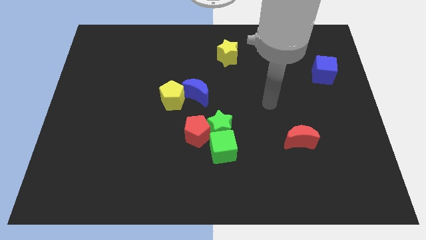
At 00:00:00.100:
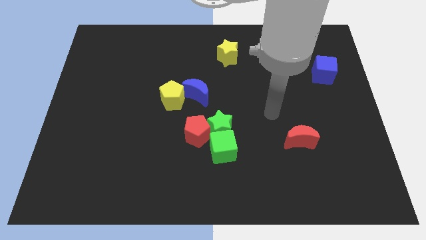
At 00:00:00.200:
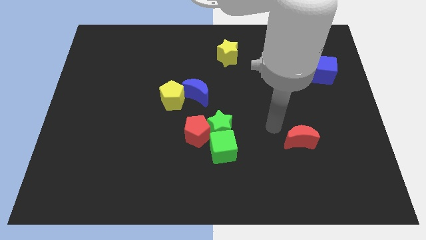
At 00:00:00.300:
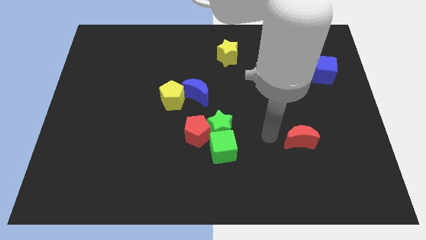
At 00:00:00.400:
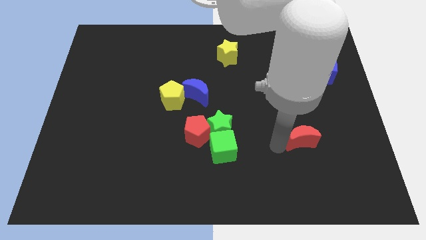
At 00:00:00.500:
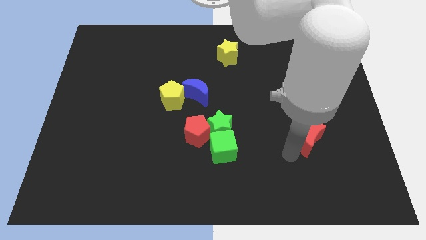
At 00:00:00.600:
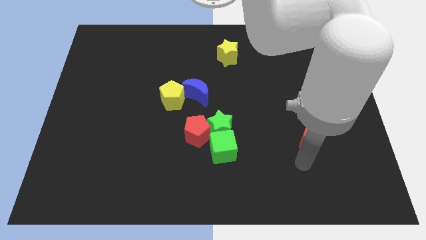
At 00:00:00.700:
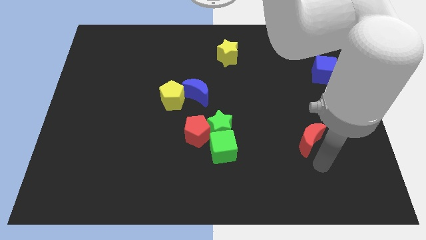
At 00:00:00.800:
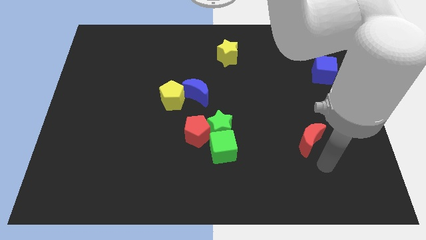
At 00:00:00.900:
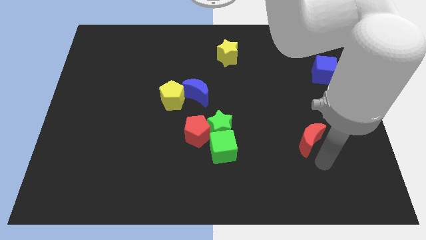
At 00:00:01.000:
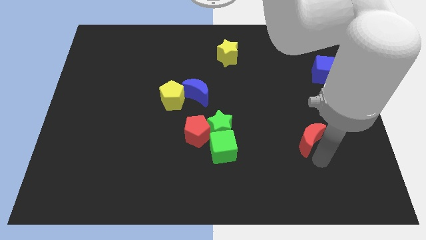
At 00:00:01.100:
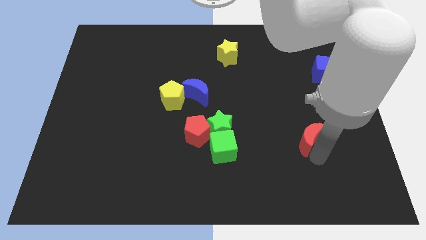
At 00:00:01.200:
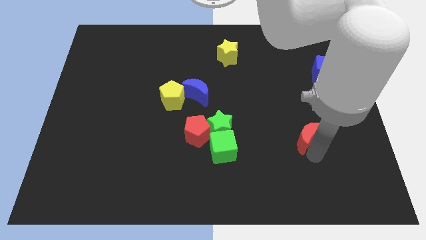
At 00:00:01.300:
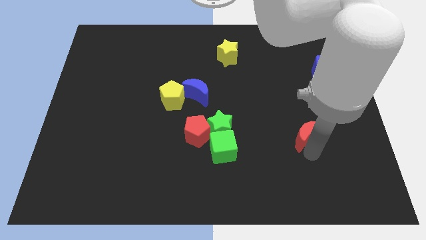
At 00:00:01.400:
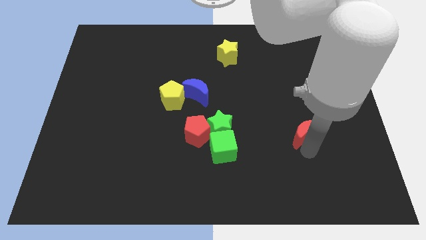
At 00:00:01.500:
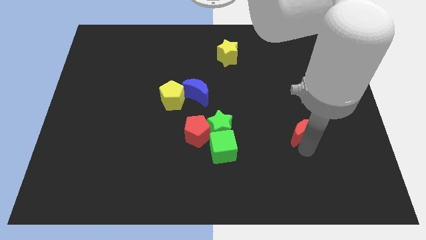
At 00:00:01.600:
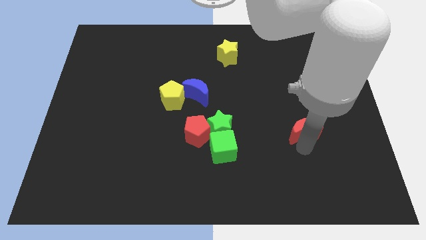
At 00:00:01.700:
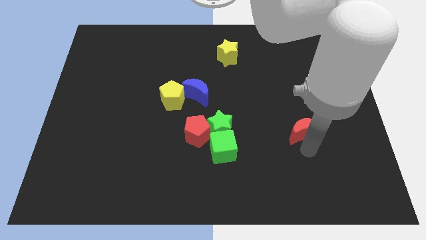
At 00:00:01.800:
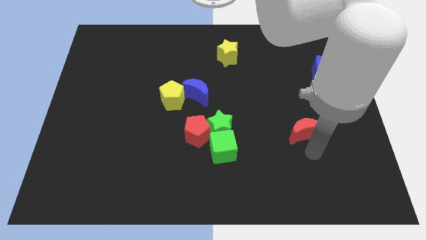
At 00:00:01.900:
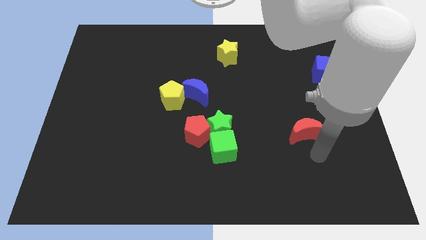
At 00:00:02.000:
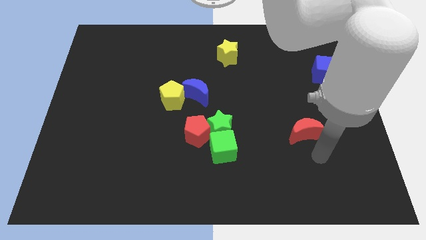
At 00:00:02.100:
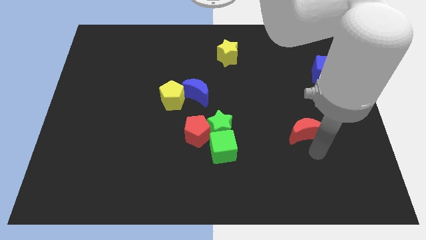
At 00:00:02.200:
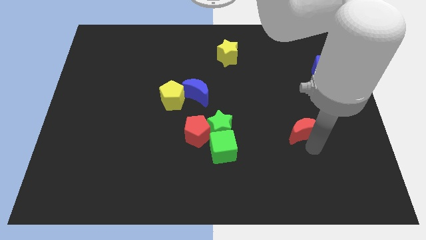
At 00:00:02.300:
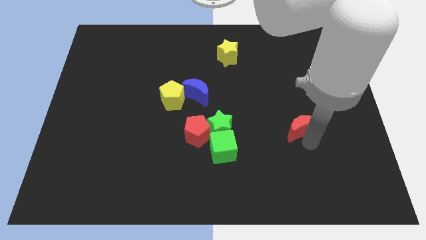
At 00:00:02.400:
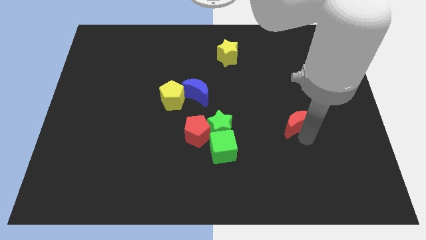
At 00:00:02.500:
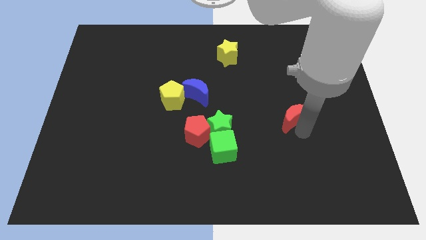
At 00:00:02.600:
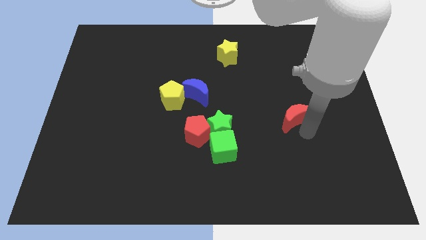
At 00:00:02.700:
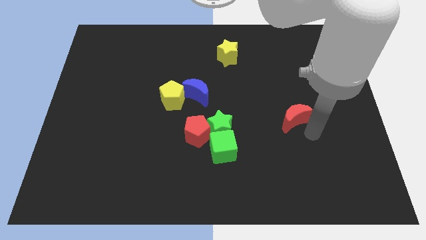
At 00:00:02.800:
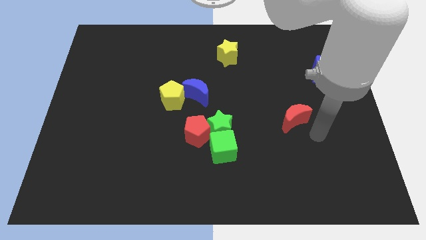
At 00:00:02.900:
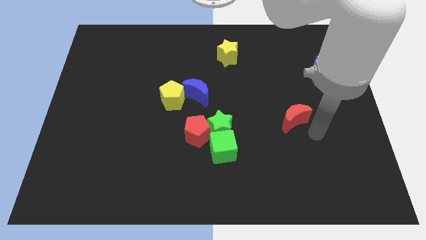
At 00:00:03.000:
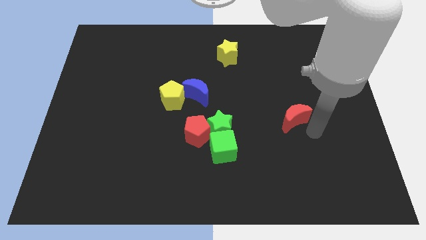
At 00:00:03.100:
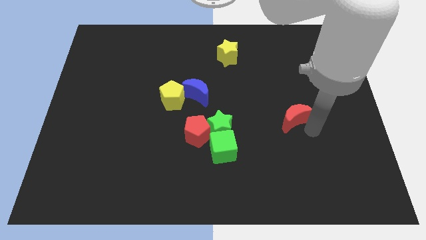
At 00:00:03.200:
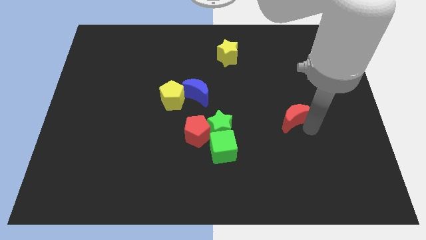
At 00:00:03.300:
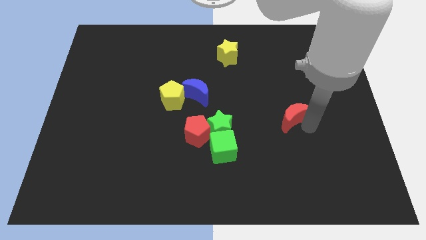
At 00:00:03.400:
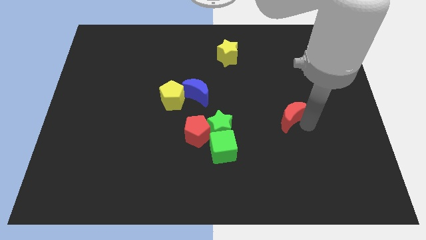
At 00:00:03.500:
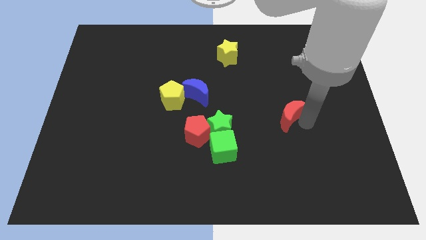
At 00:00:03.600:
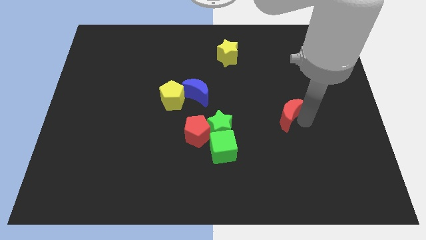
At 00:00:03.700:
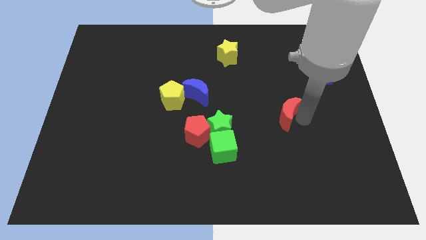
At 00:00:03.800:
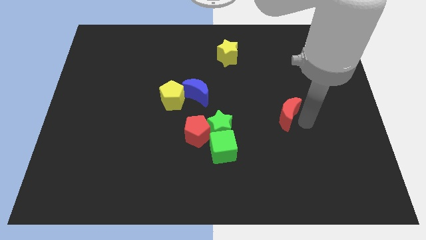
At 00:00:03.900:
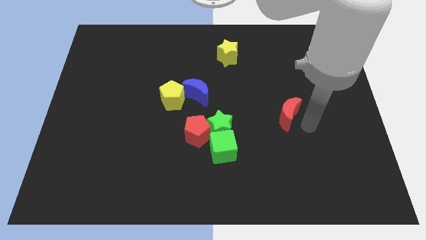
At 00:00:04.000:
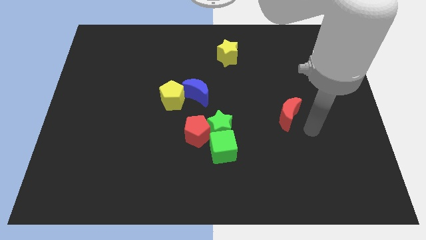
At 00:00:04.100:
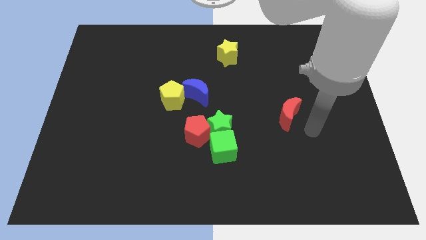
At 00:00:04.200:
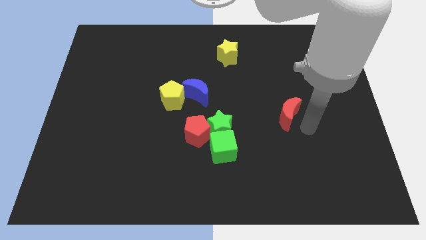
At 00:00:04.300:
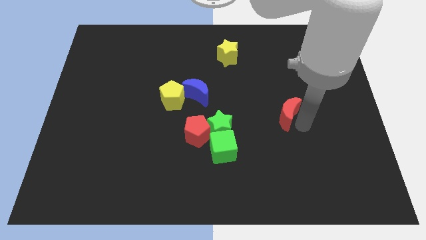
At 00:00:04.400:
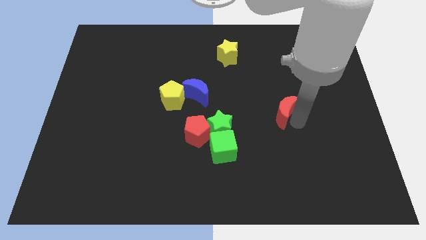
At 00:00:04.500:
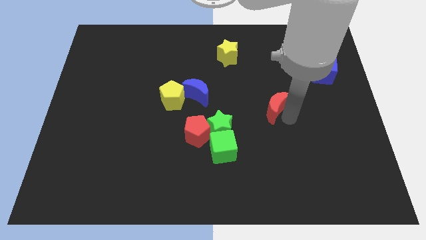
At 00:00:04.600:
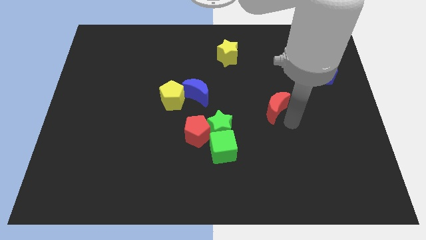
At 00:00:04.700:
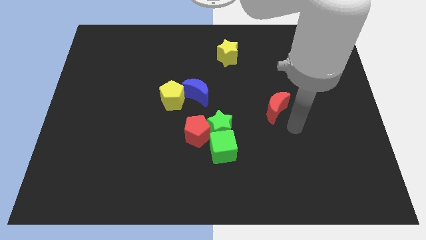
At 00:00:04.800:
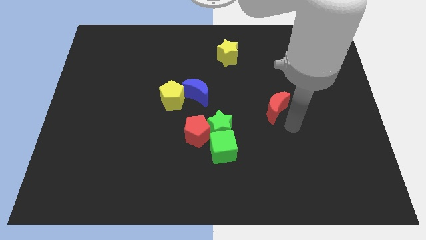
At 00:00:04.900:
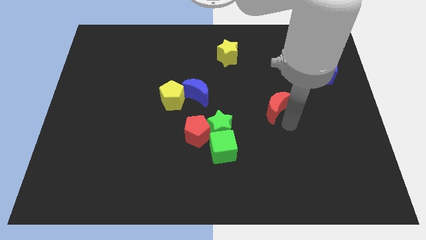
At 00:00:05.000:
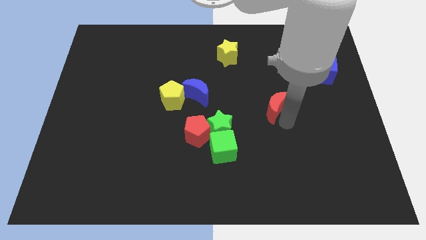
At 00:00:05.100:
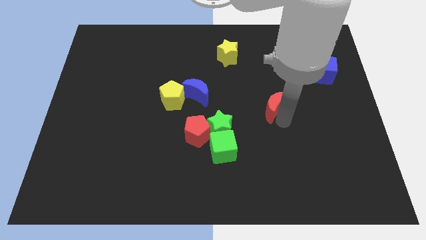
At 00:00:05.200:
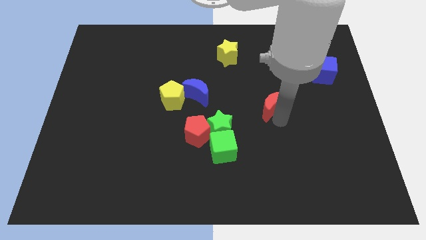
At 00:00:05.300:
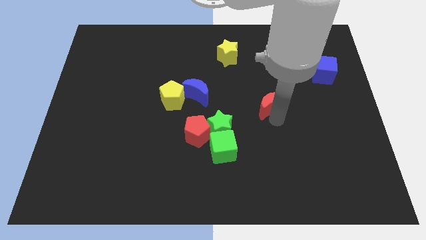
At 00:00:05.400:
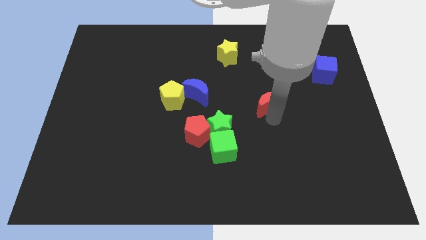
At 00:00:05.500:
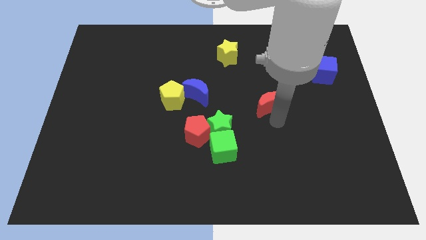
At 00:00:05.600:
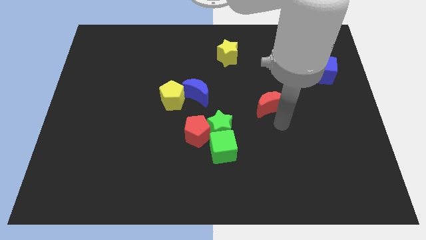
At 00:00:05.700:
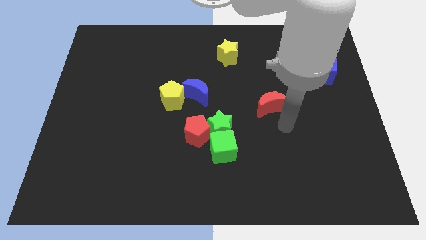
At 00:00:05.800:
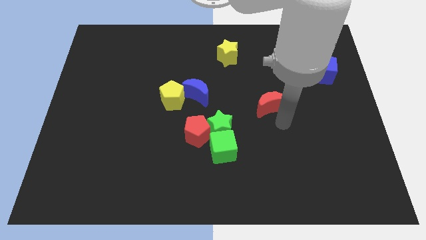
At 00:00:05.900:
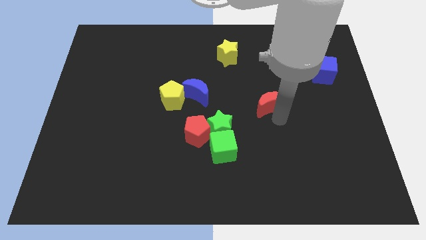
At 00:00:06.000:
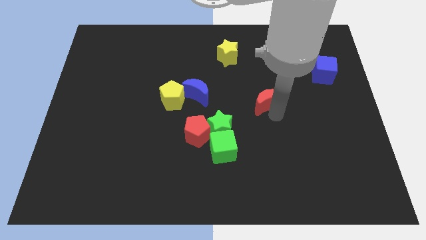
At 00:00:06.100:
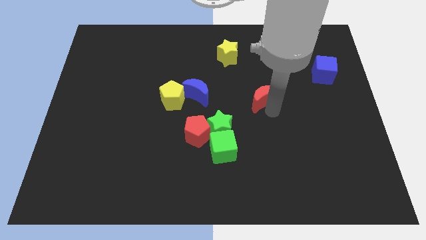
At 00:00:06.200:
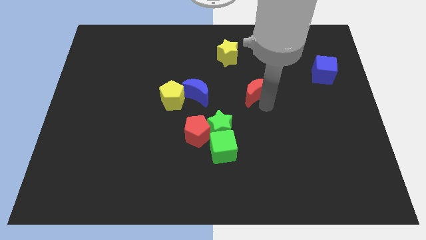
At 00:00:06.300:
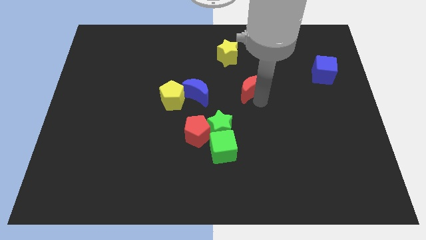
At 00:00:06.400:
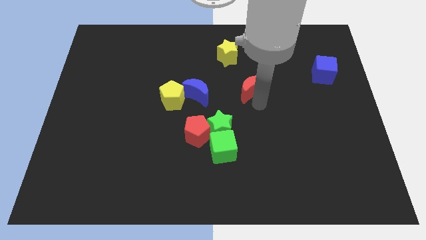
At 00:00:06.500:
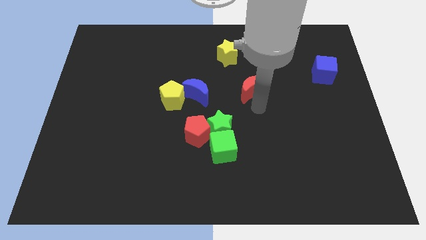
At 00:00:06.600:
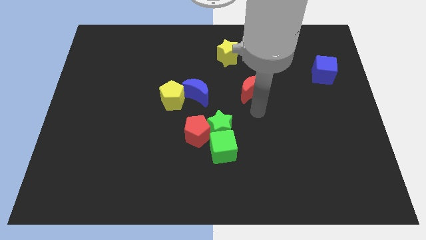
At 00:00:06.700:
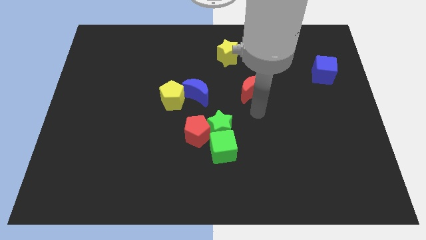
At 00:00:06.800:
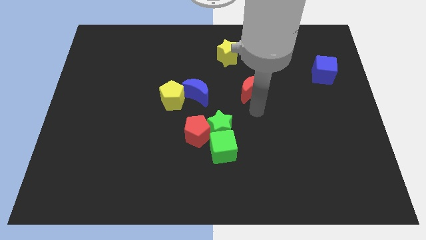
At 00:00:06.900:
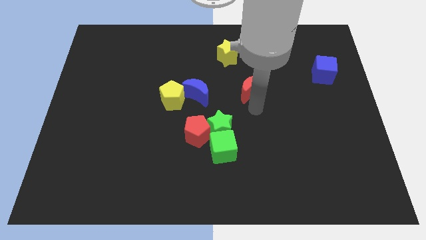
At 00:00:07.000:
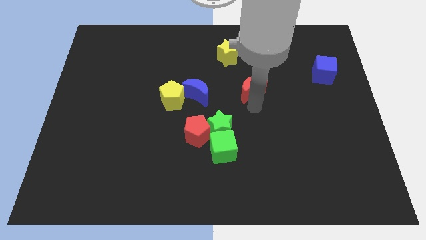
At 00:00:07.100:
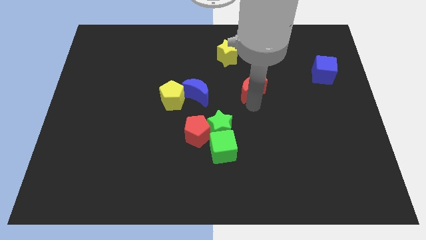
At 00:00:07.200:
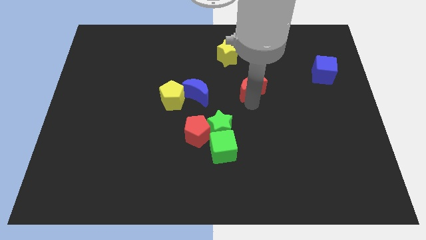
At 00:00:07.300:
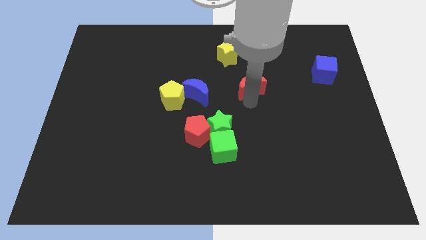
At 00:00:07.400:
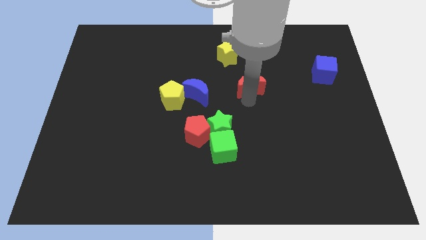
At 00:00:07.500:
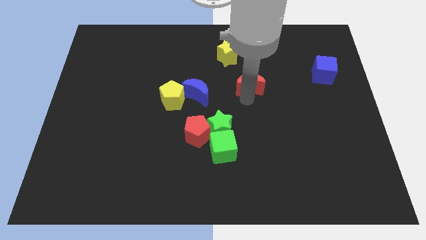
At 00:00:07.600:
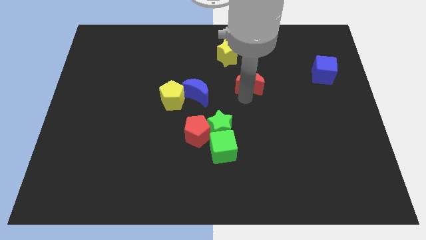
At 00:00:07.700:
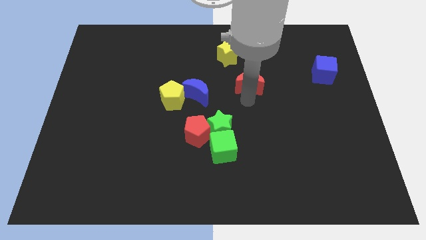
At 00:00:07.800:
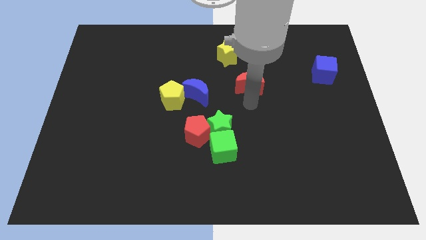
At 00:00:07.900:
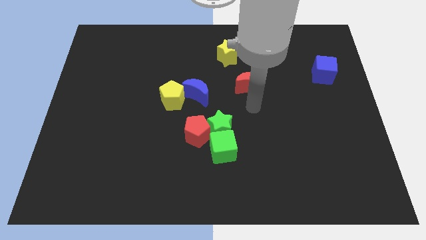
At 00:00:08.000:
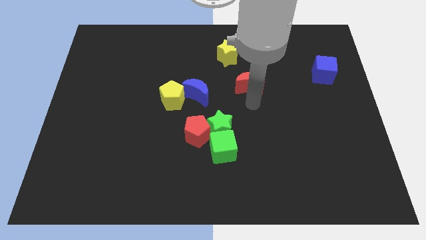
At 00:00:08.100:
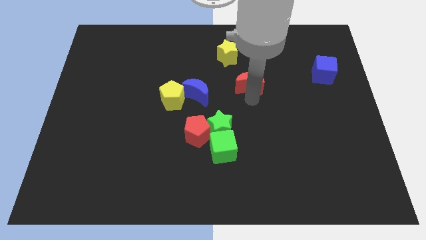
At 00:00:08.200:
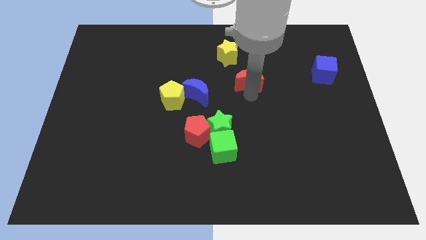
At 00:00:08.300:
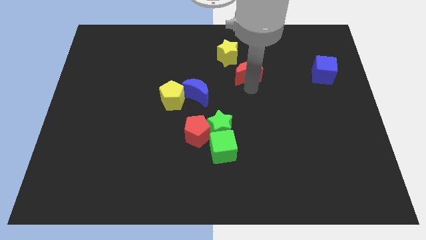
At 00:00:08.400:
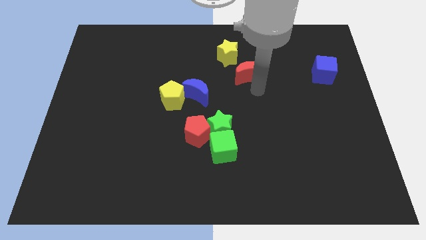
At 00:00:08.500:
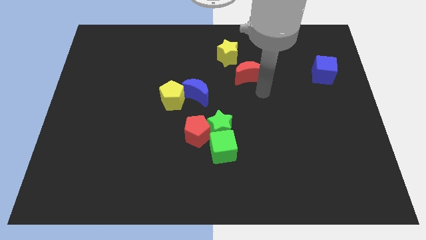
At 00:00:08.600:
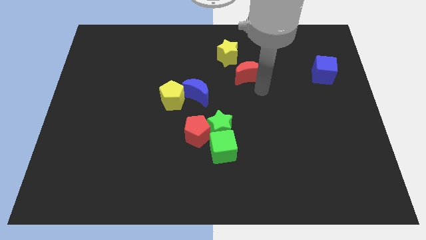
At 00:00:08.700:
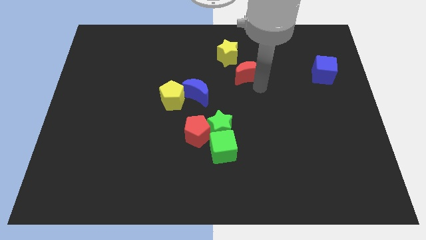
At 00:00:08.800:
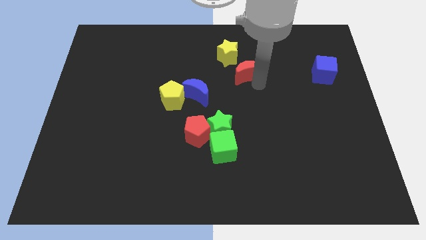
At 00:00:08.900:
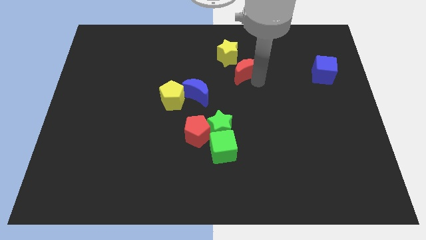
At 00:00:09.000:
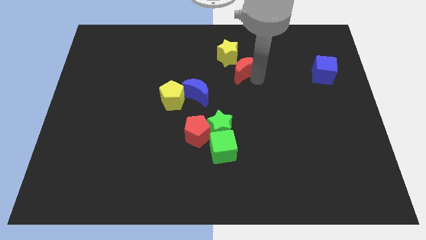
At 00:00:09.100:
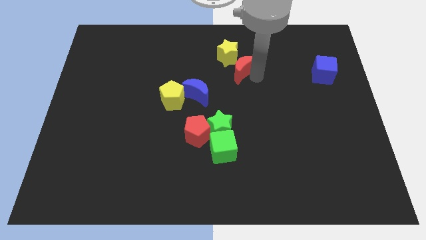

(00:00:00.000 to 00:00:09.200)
push the red moon to the yellow star
